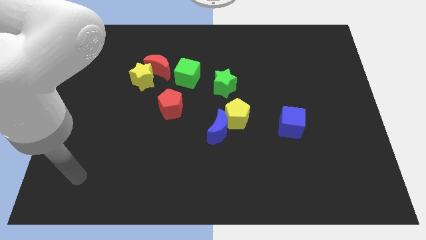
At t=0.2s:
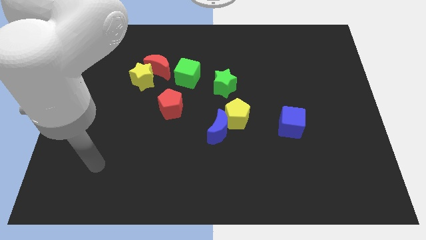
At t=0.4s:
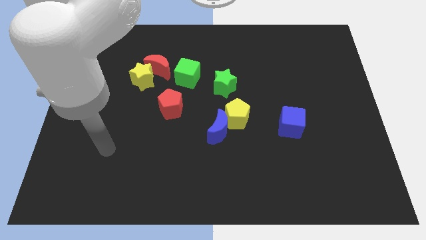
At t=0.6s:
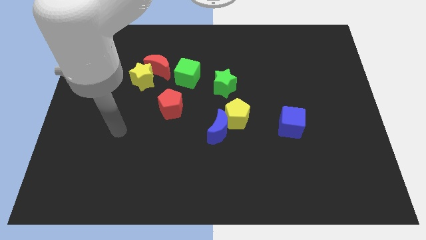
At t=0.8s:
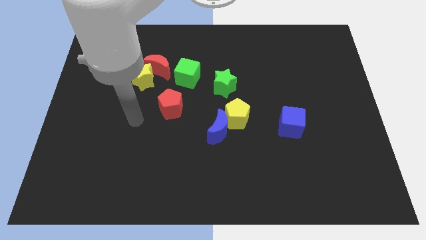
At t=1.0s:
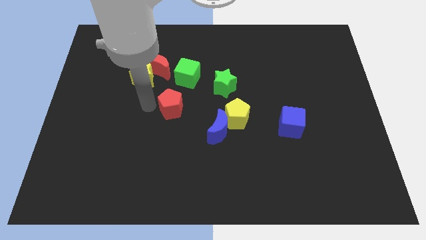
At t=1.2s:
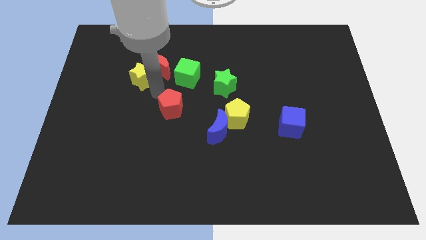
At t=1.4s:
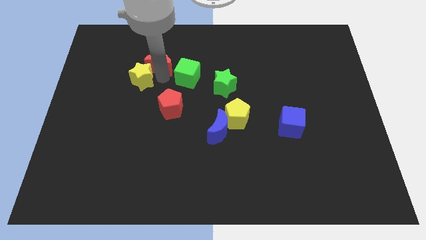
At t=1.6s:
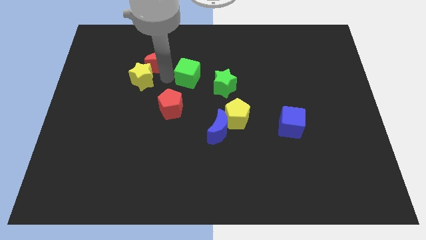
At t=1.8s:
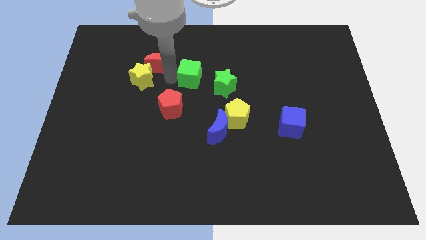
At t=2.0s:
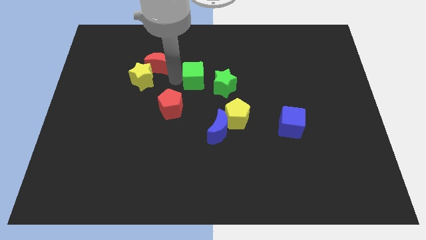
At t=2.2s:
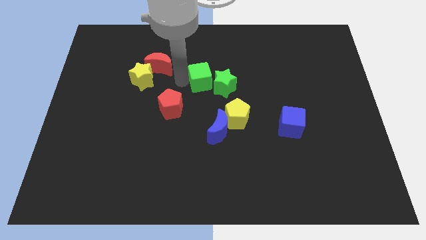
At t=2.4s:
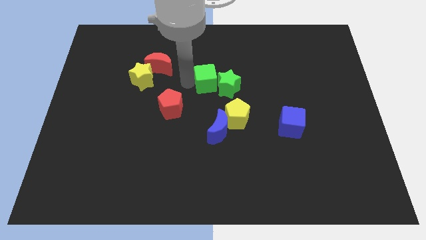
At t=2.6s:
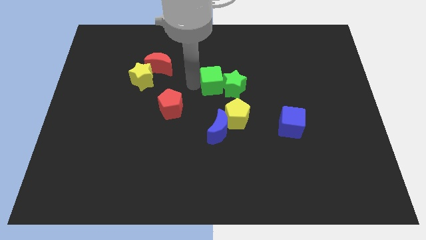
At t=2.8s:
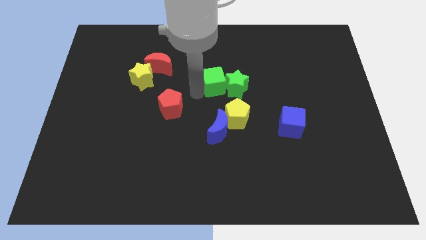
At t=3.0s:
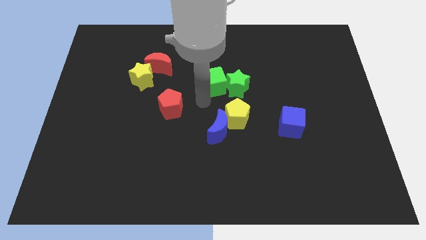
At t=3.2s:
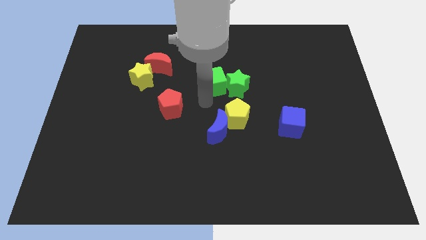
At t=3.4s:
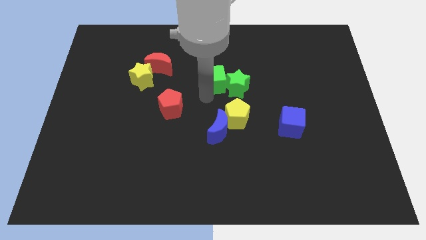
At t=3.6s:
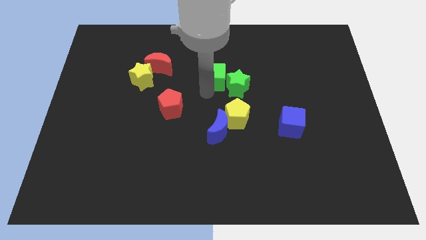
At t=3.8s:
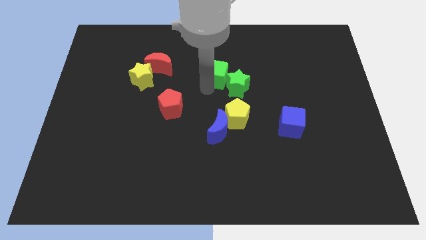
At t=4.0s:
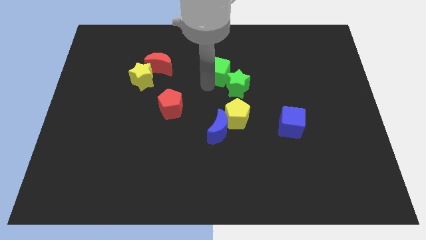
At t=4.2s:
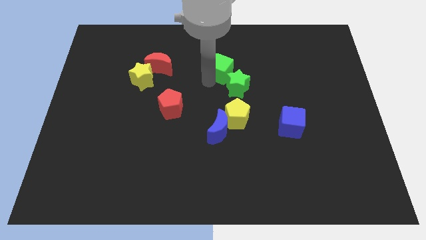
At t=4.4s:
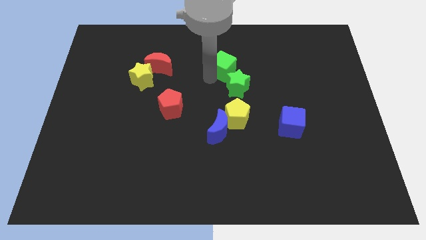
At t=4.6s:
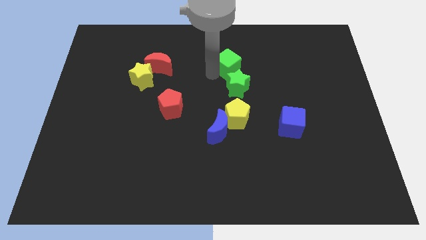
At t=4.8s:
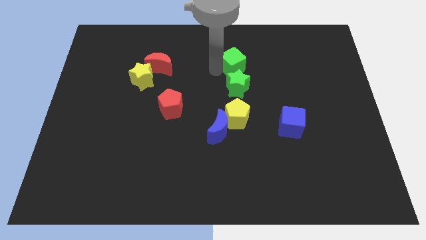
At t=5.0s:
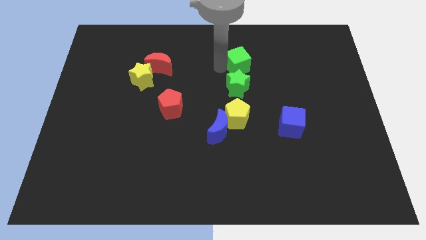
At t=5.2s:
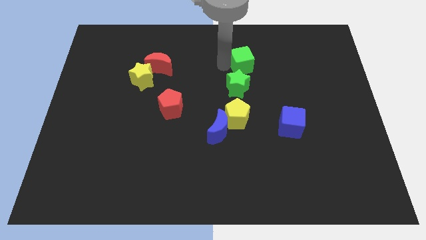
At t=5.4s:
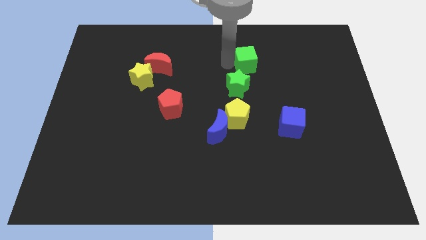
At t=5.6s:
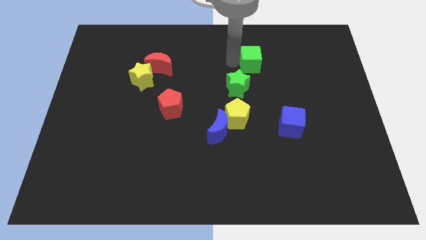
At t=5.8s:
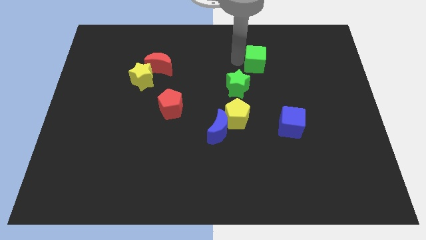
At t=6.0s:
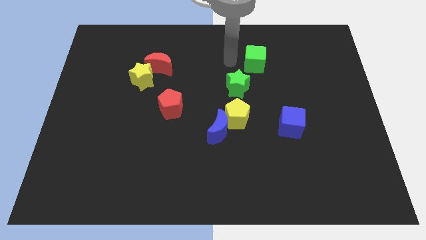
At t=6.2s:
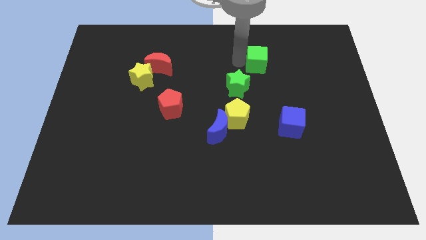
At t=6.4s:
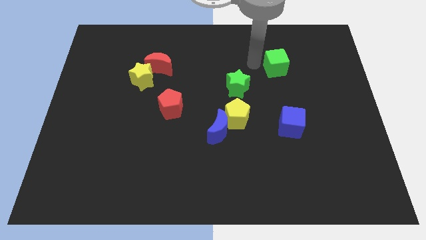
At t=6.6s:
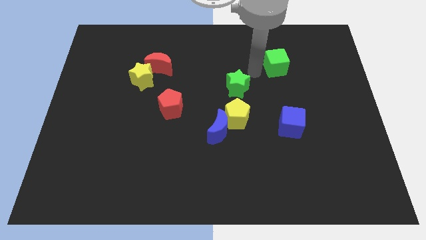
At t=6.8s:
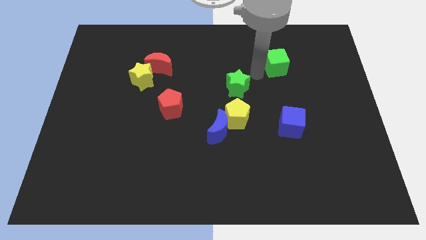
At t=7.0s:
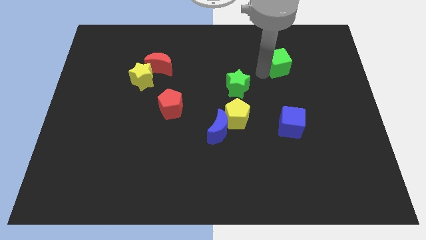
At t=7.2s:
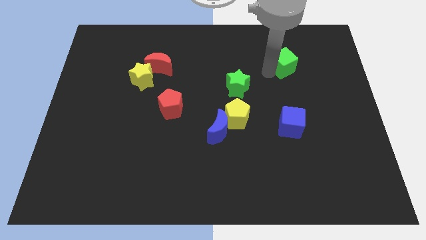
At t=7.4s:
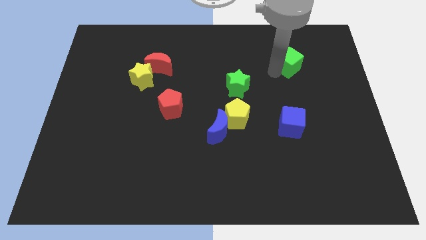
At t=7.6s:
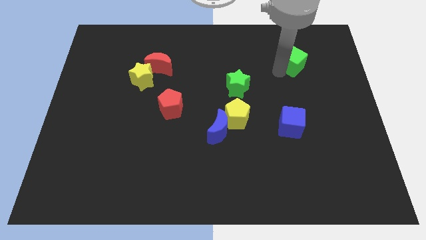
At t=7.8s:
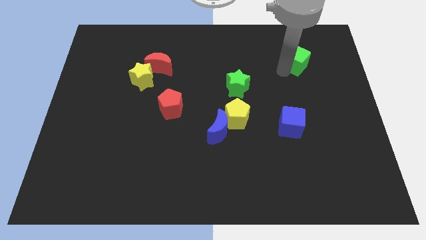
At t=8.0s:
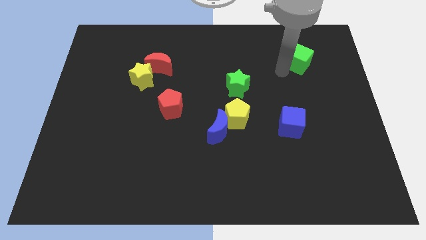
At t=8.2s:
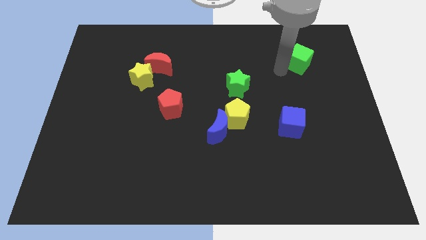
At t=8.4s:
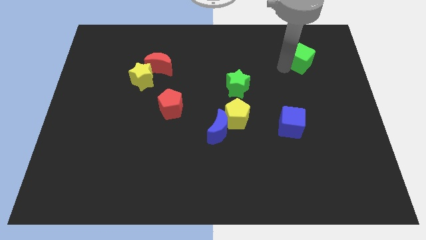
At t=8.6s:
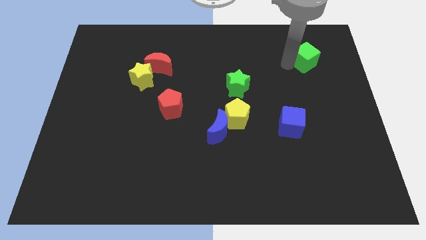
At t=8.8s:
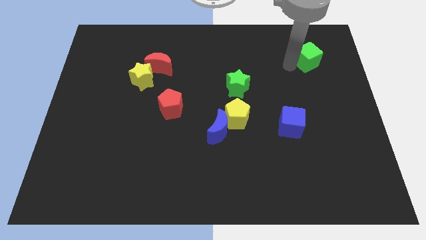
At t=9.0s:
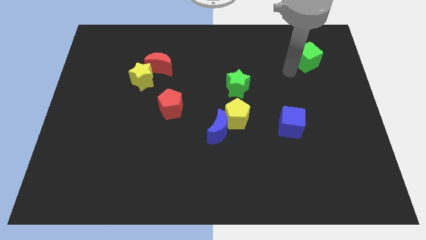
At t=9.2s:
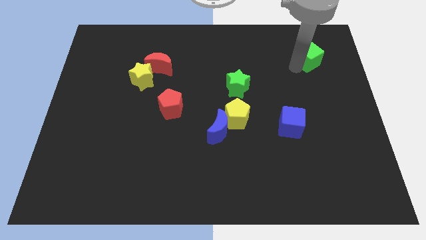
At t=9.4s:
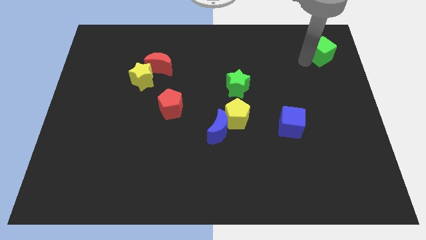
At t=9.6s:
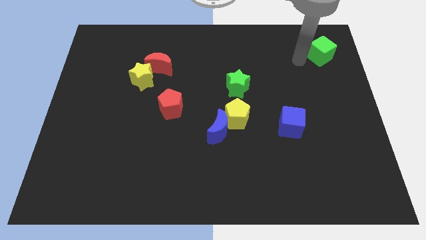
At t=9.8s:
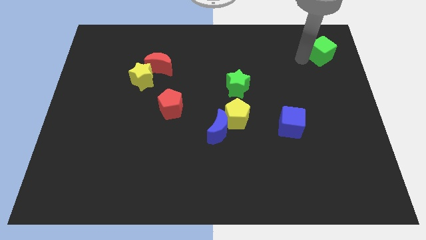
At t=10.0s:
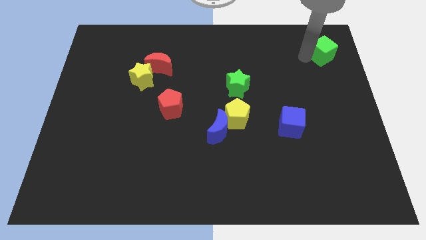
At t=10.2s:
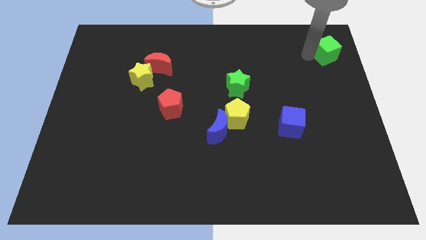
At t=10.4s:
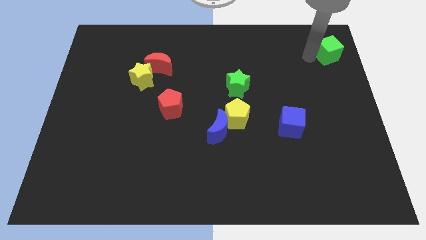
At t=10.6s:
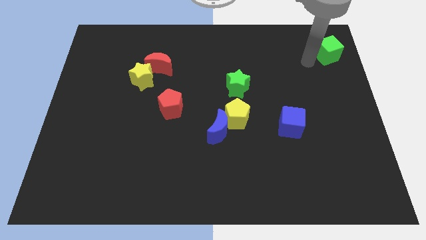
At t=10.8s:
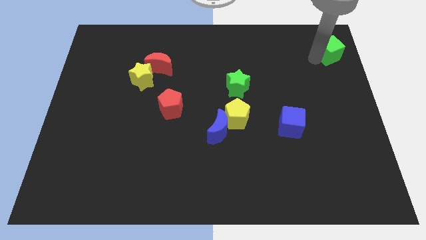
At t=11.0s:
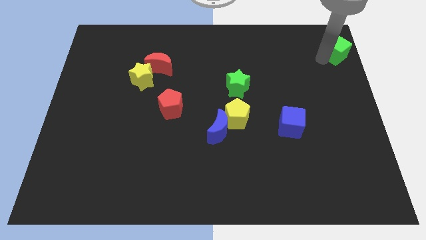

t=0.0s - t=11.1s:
put the green cube to the top right
